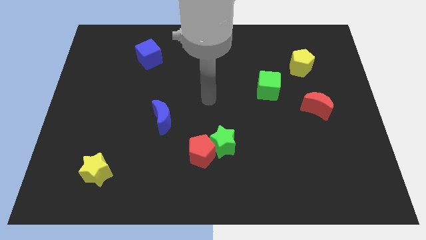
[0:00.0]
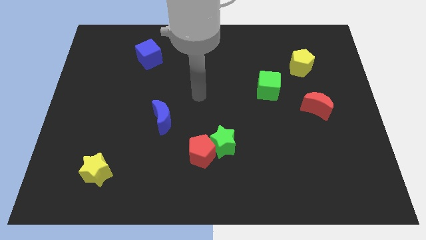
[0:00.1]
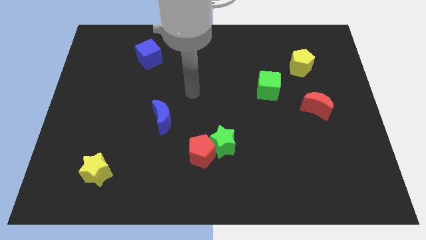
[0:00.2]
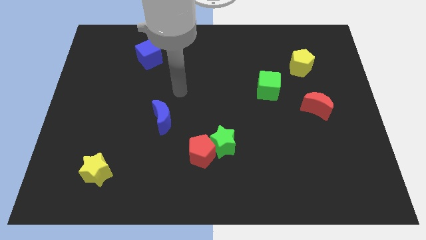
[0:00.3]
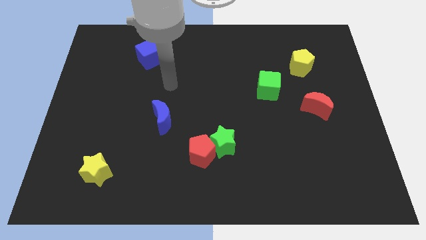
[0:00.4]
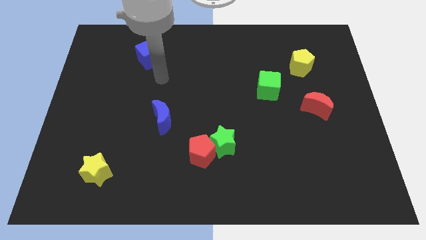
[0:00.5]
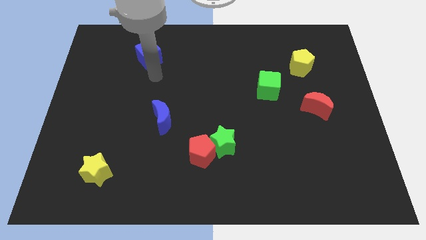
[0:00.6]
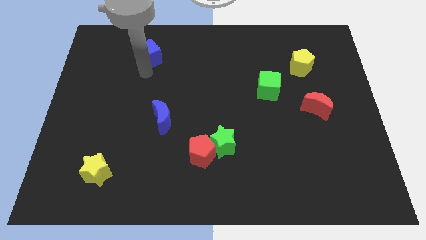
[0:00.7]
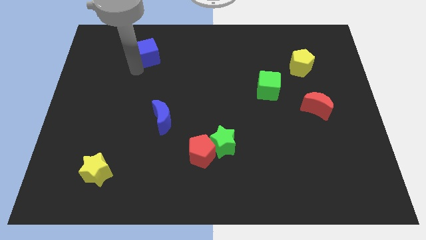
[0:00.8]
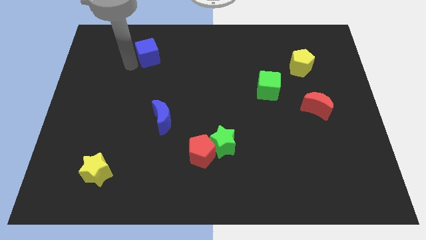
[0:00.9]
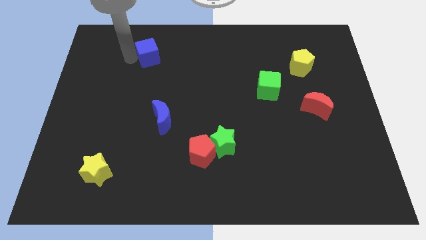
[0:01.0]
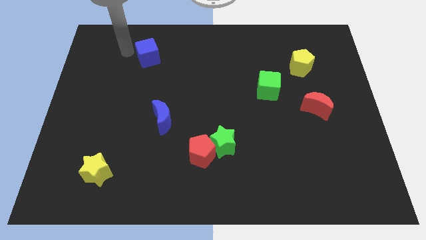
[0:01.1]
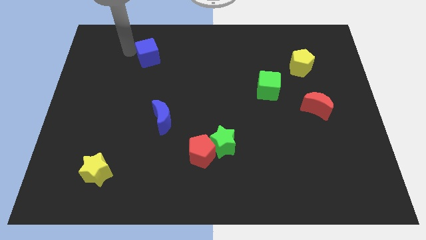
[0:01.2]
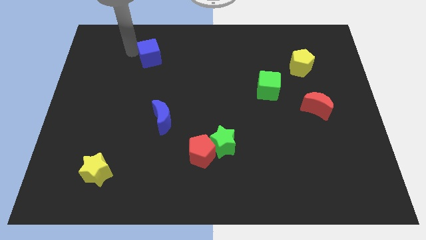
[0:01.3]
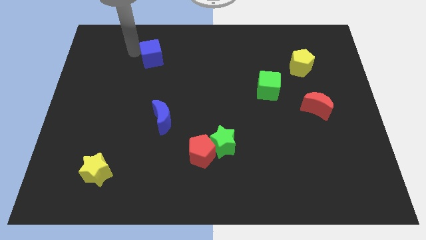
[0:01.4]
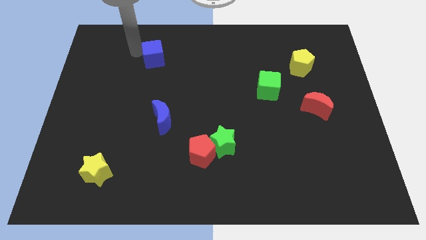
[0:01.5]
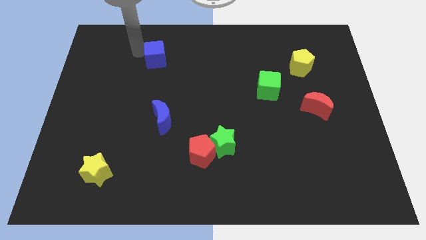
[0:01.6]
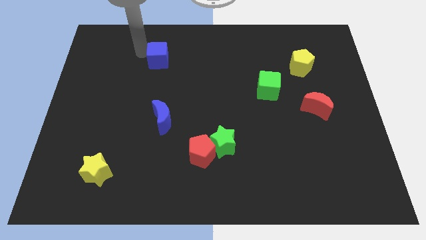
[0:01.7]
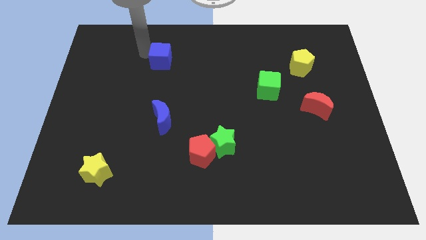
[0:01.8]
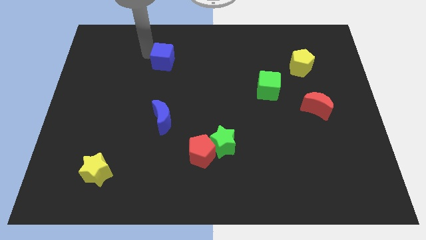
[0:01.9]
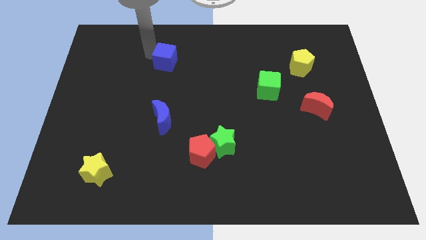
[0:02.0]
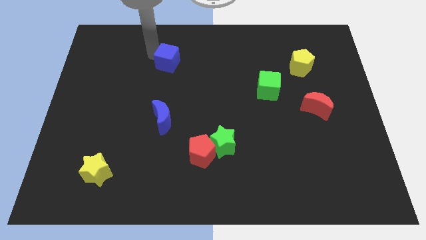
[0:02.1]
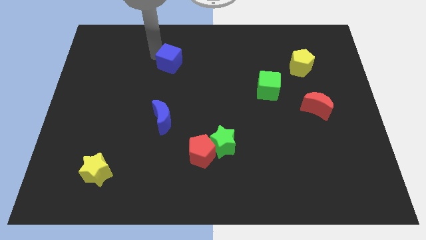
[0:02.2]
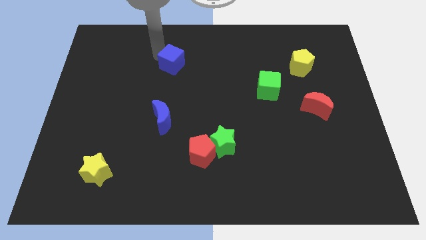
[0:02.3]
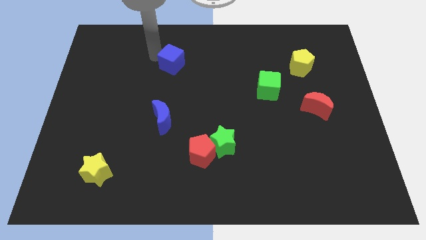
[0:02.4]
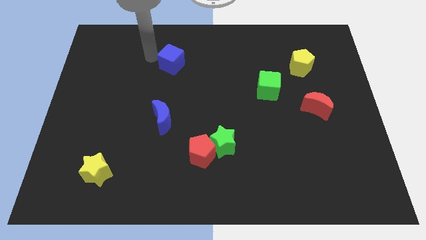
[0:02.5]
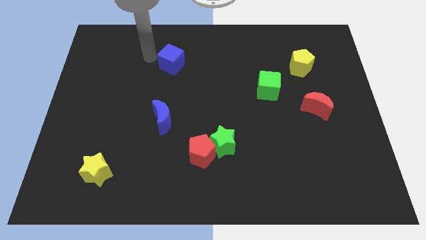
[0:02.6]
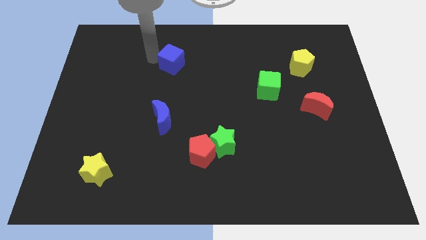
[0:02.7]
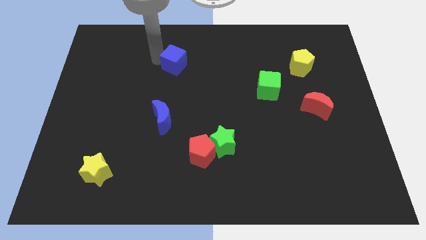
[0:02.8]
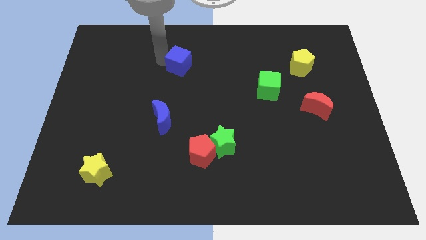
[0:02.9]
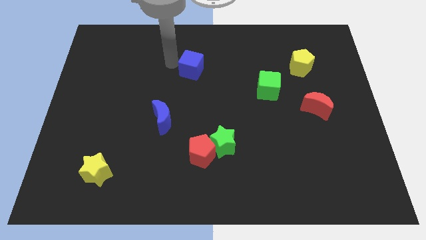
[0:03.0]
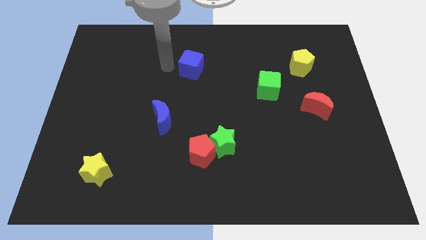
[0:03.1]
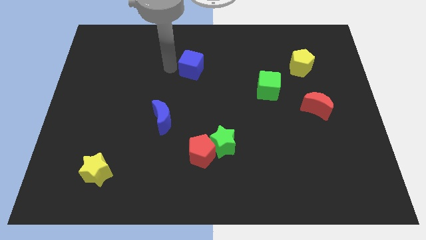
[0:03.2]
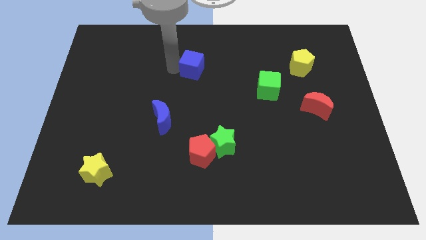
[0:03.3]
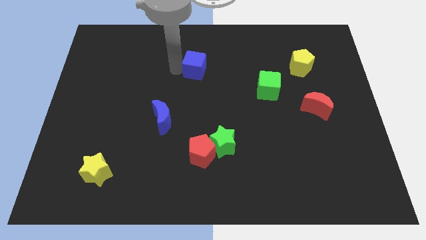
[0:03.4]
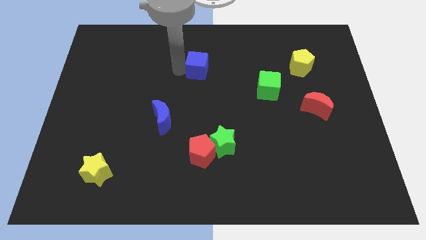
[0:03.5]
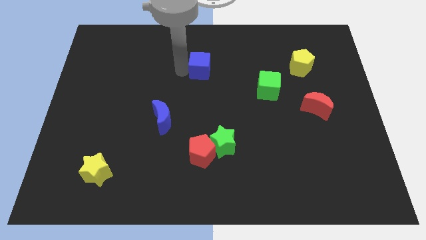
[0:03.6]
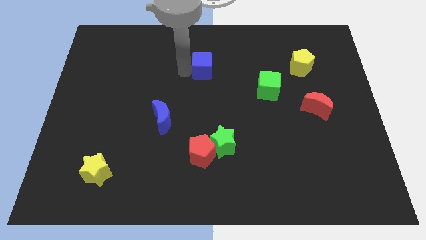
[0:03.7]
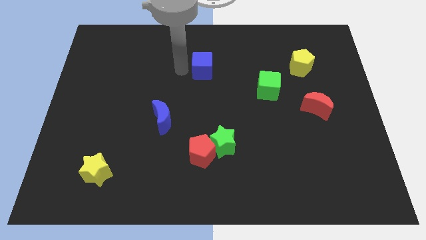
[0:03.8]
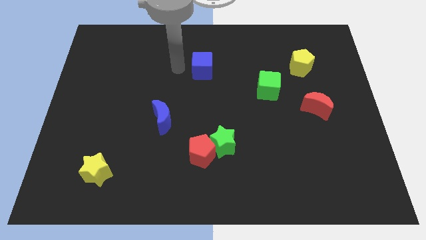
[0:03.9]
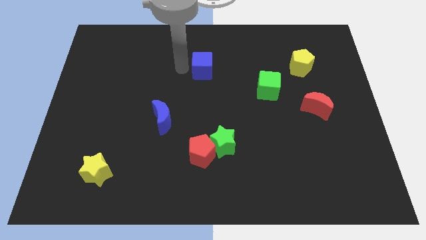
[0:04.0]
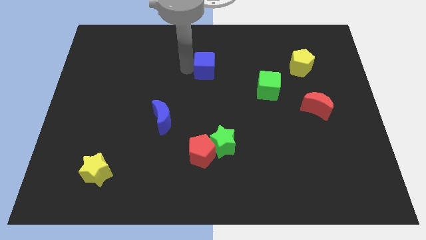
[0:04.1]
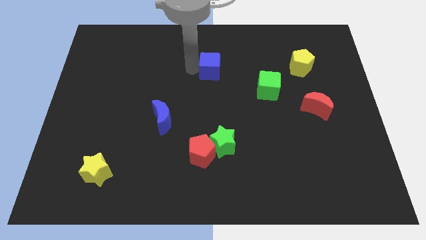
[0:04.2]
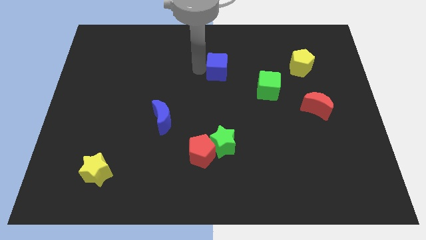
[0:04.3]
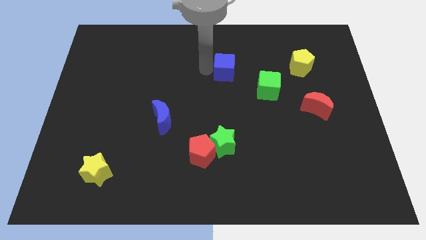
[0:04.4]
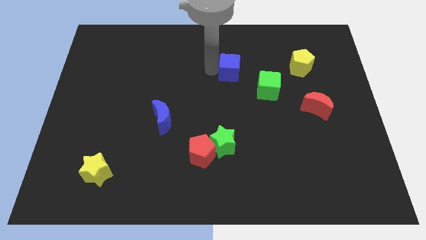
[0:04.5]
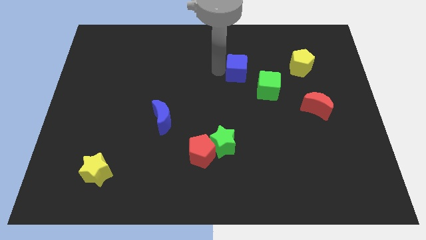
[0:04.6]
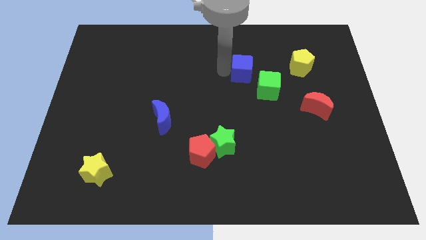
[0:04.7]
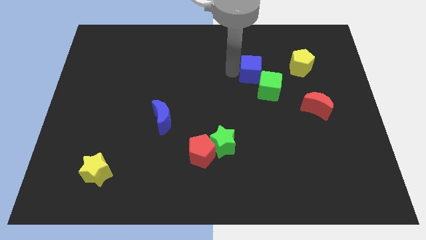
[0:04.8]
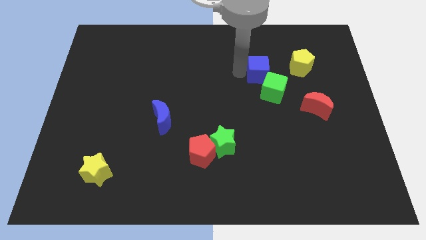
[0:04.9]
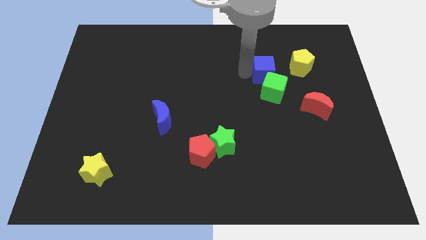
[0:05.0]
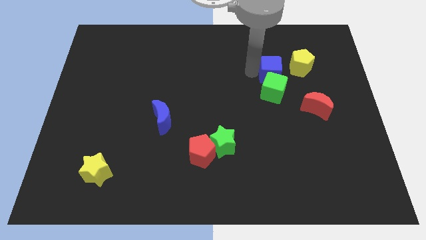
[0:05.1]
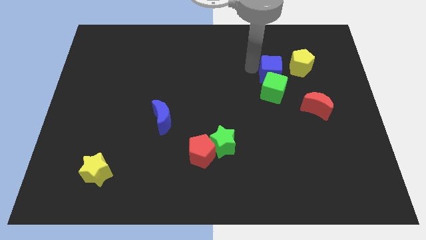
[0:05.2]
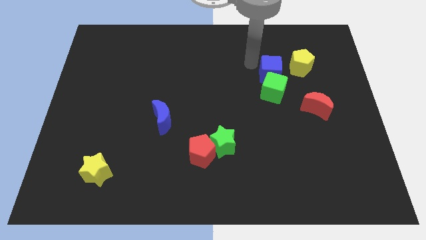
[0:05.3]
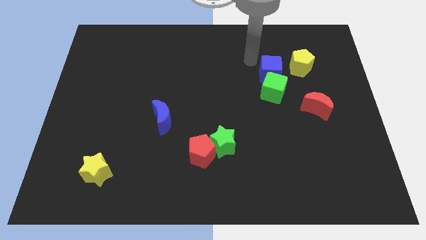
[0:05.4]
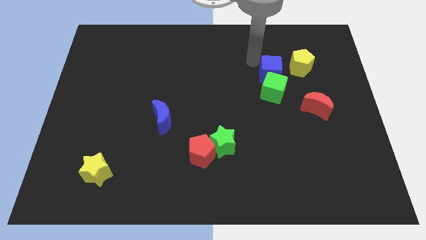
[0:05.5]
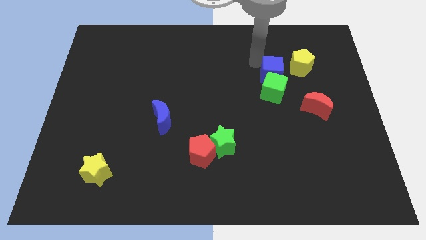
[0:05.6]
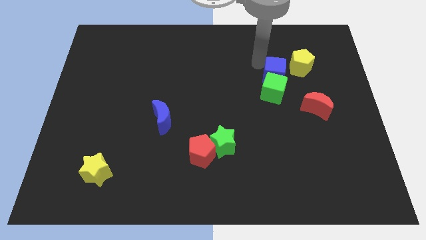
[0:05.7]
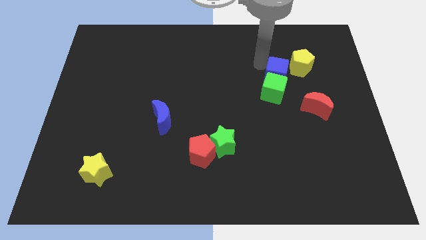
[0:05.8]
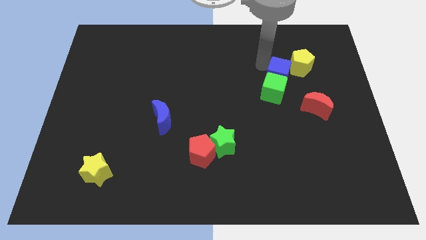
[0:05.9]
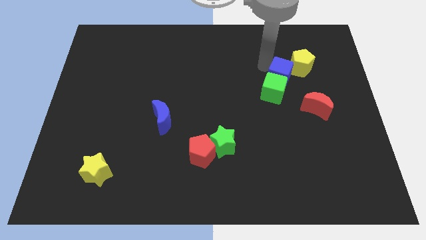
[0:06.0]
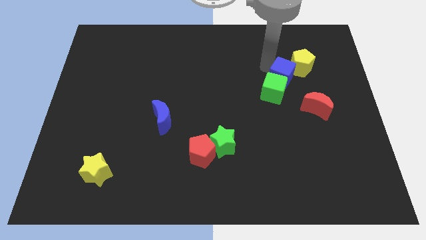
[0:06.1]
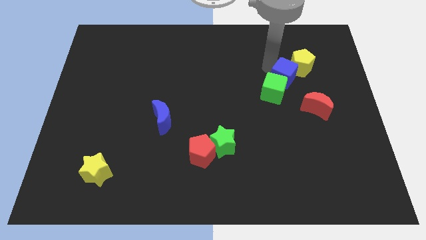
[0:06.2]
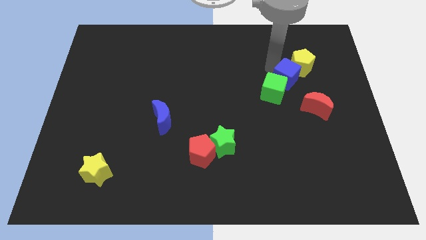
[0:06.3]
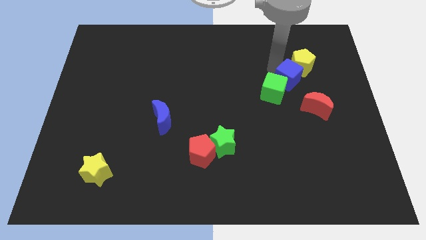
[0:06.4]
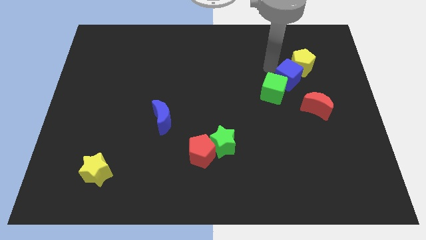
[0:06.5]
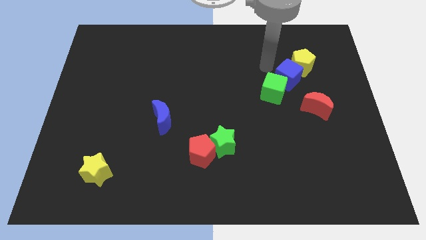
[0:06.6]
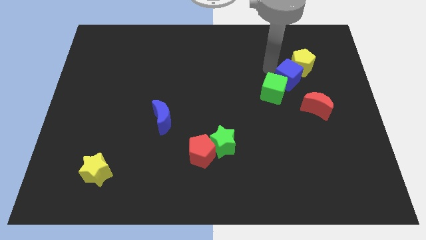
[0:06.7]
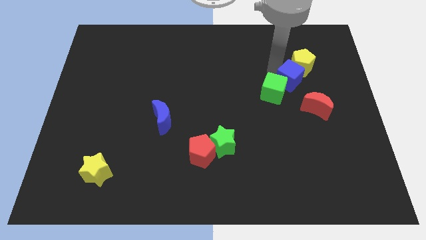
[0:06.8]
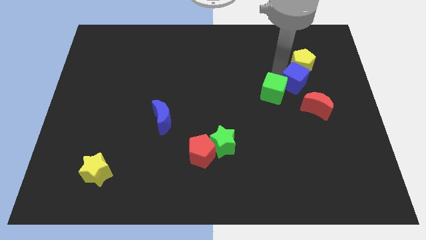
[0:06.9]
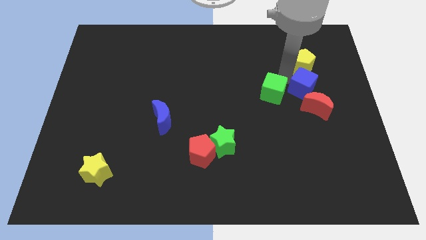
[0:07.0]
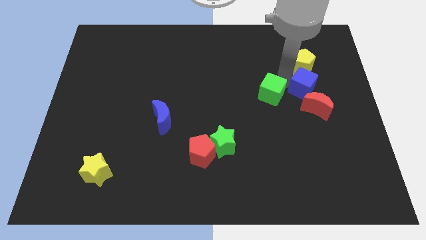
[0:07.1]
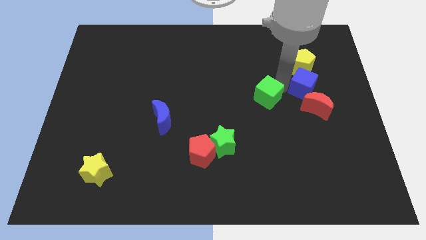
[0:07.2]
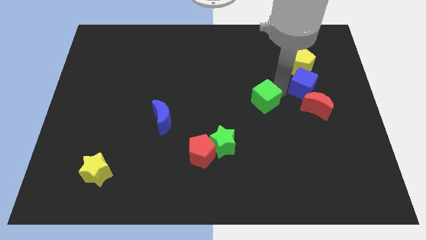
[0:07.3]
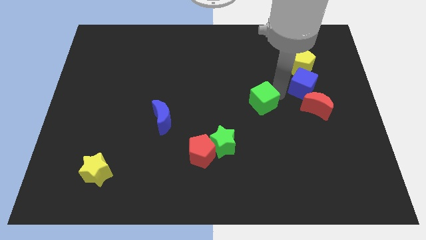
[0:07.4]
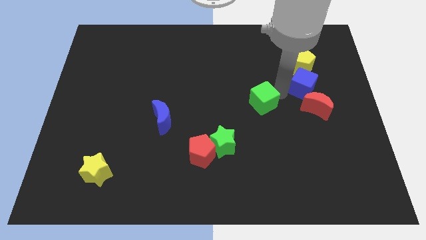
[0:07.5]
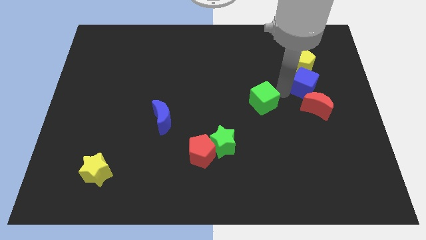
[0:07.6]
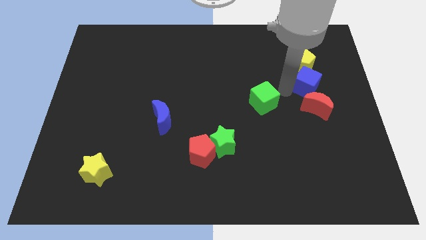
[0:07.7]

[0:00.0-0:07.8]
slide the blue cube to the bottom right side of the yellow pentagon
